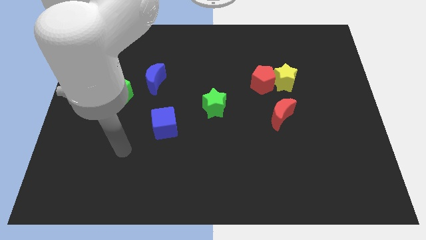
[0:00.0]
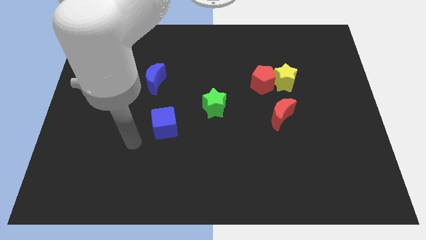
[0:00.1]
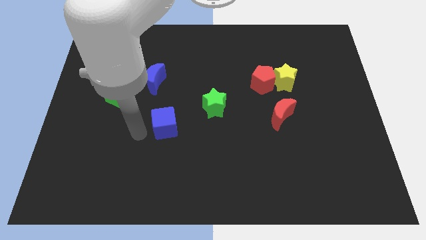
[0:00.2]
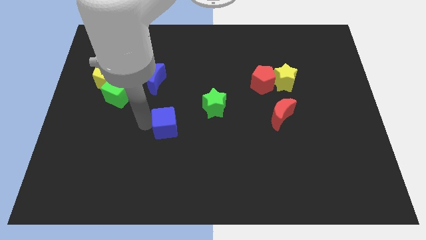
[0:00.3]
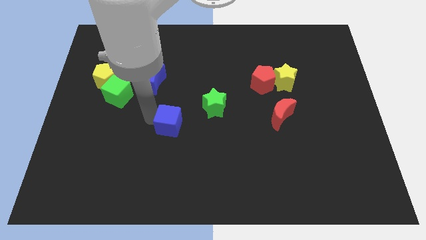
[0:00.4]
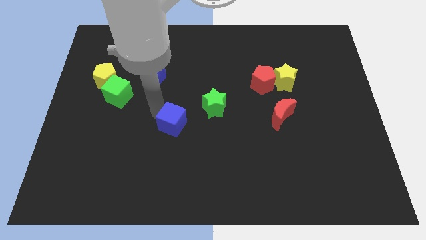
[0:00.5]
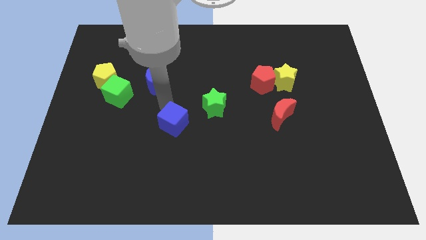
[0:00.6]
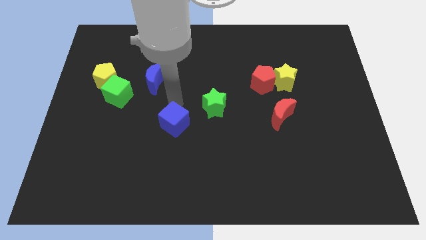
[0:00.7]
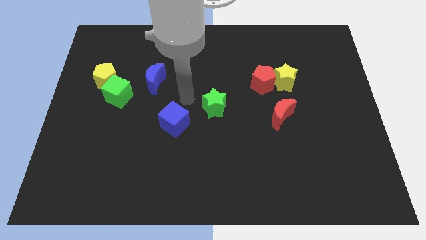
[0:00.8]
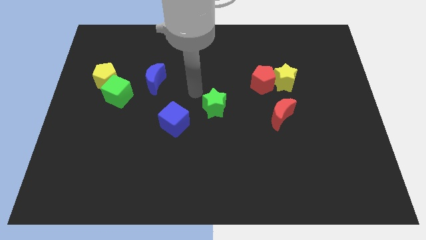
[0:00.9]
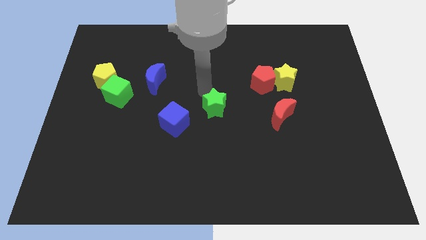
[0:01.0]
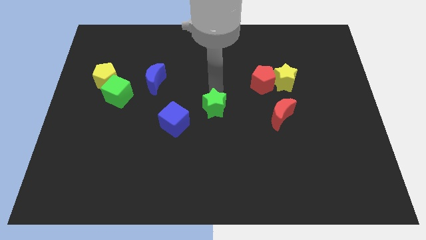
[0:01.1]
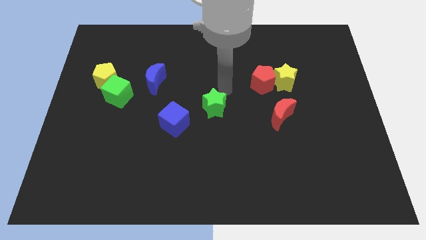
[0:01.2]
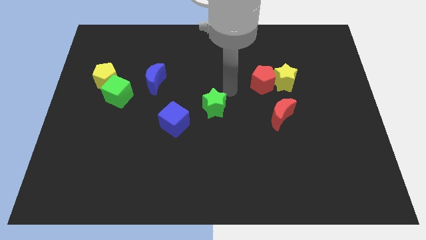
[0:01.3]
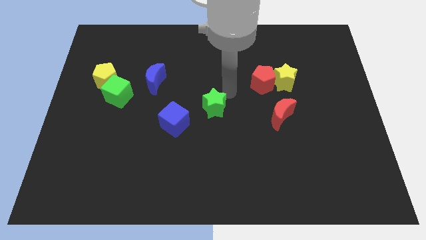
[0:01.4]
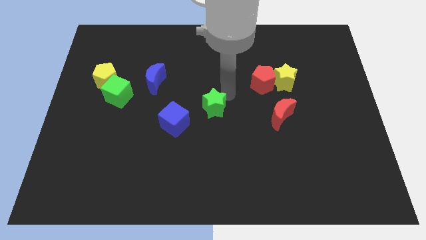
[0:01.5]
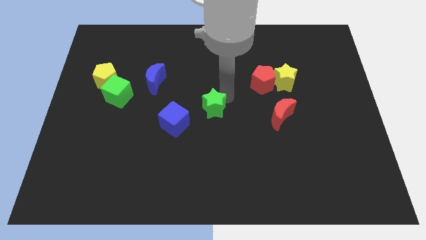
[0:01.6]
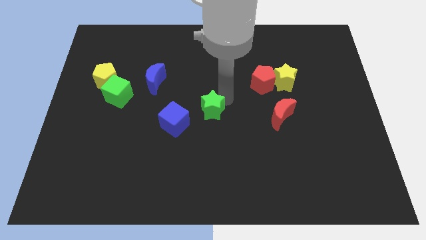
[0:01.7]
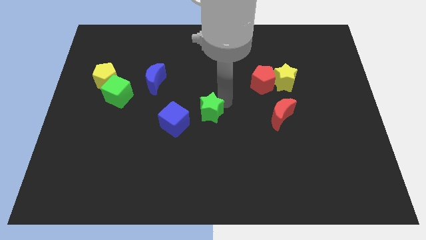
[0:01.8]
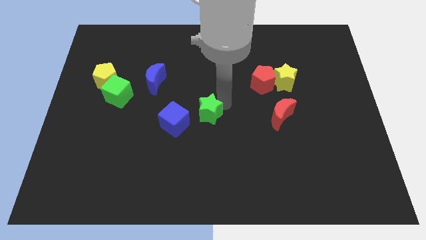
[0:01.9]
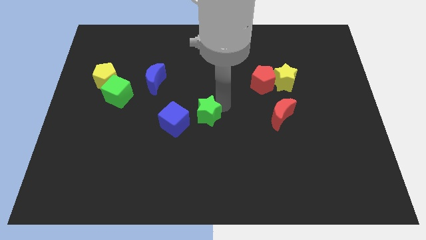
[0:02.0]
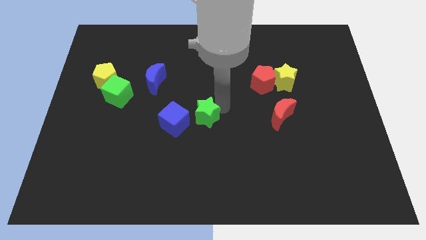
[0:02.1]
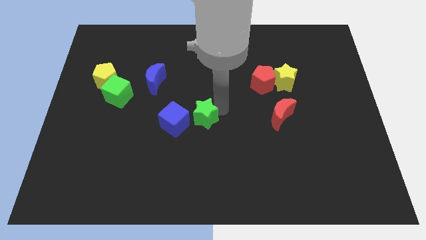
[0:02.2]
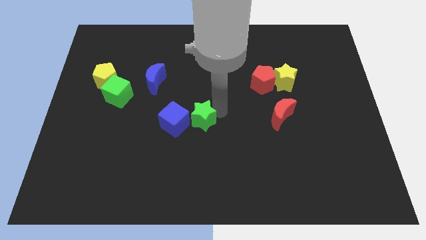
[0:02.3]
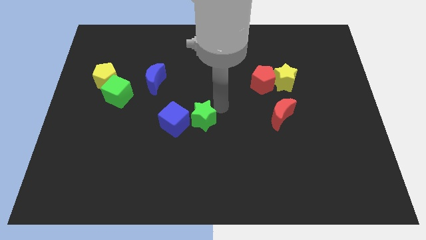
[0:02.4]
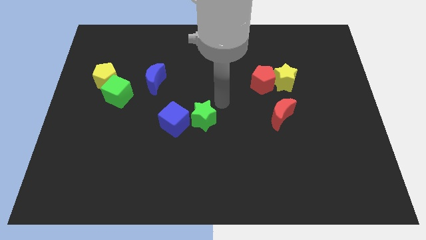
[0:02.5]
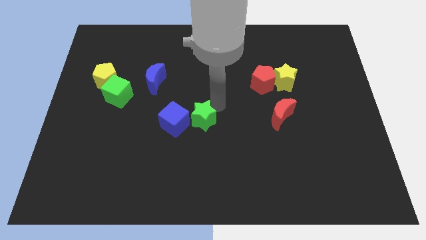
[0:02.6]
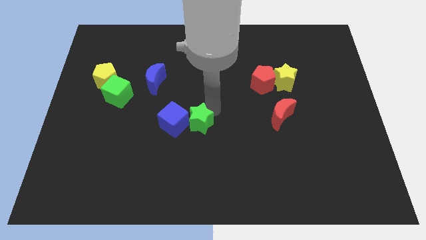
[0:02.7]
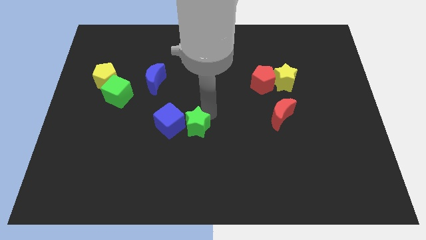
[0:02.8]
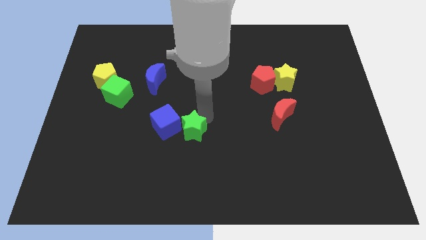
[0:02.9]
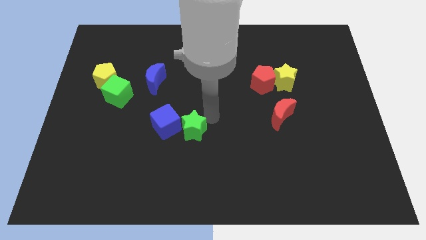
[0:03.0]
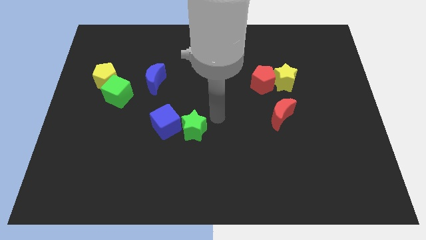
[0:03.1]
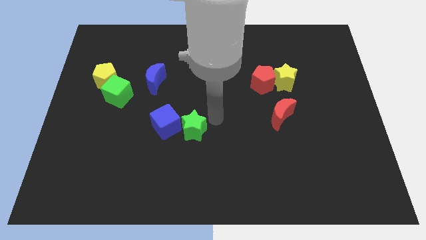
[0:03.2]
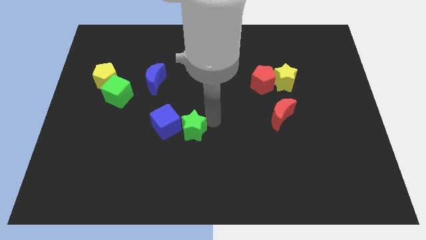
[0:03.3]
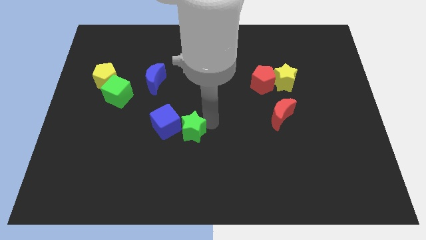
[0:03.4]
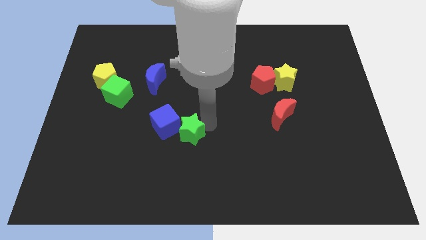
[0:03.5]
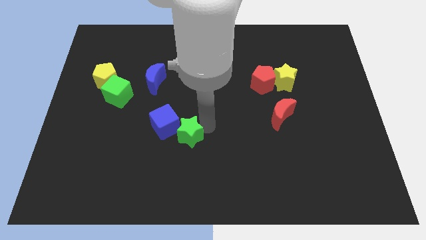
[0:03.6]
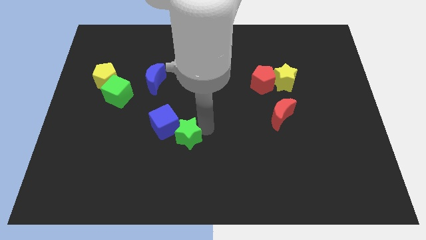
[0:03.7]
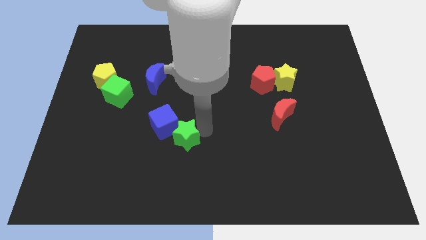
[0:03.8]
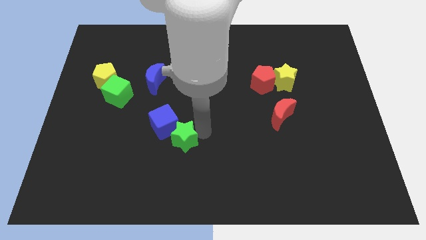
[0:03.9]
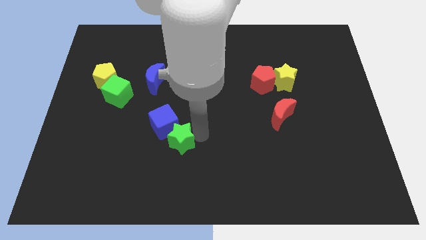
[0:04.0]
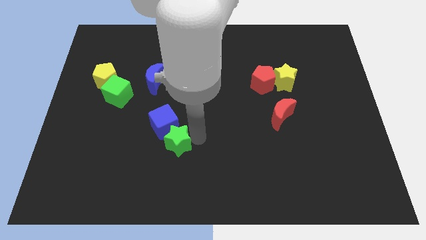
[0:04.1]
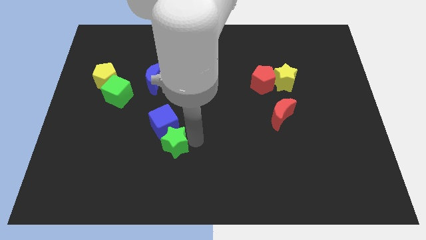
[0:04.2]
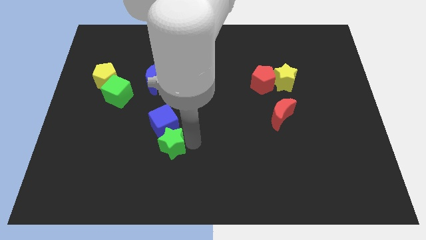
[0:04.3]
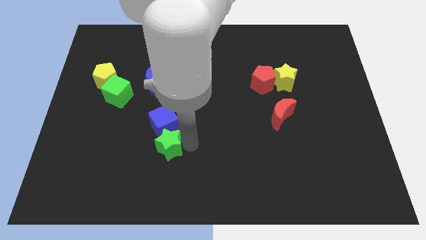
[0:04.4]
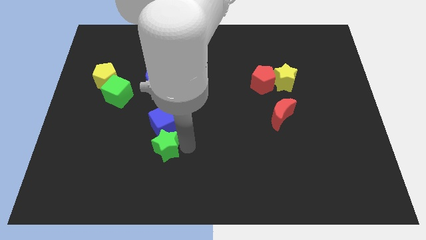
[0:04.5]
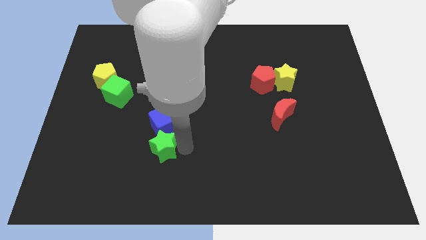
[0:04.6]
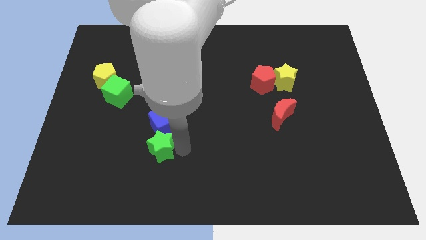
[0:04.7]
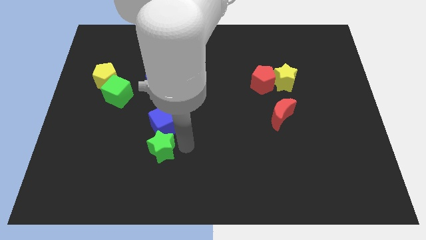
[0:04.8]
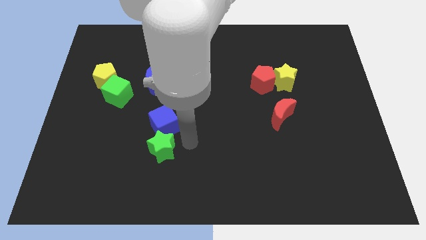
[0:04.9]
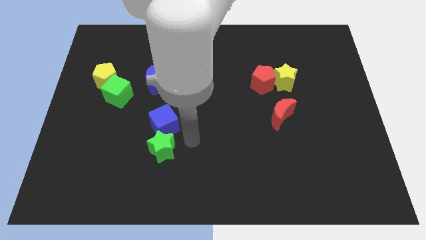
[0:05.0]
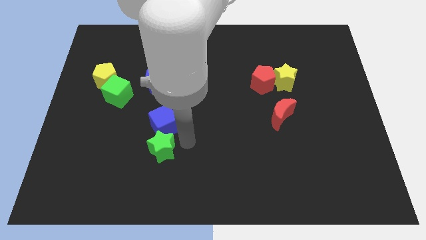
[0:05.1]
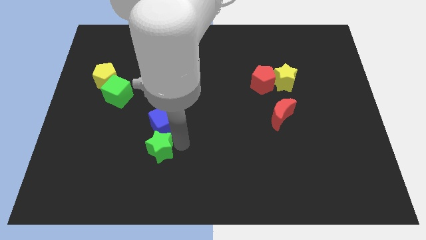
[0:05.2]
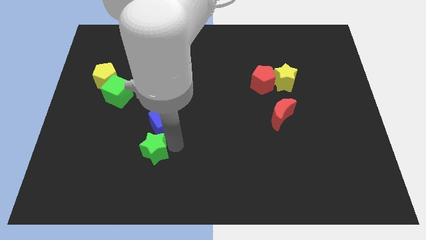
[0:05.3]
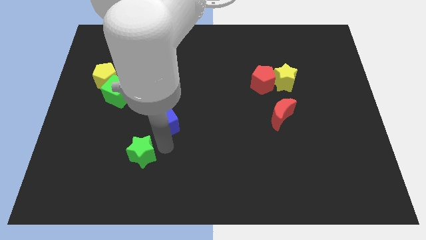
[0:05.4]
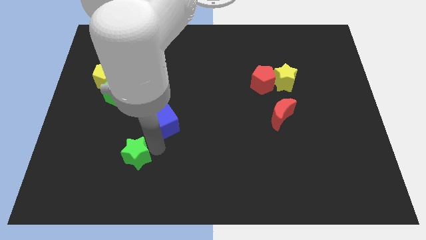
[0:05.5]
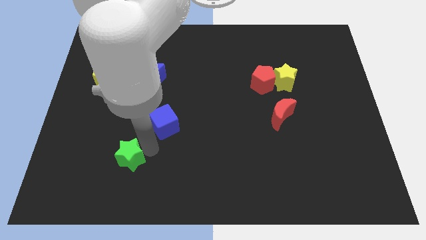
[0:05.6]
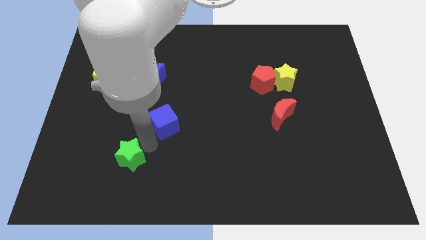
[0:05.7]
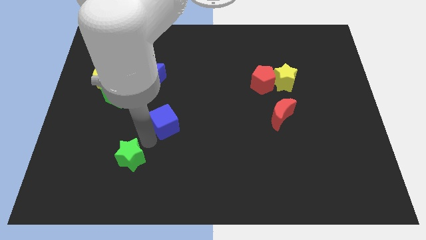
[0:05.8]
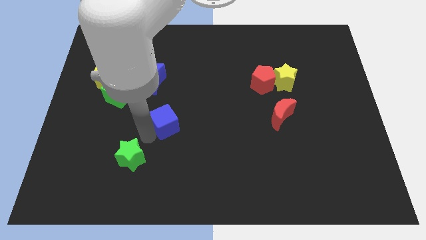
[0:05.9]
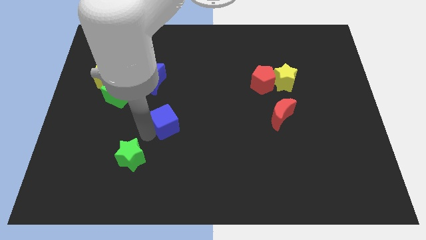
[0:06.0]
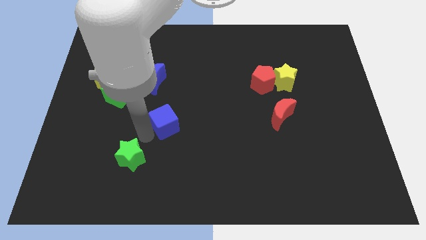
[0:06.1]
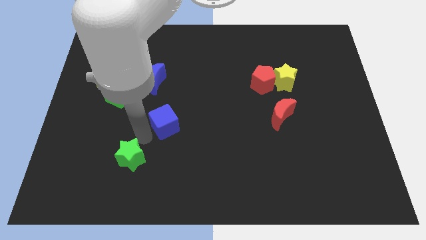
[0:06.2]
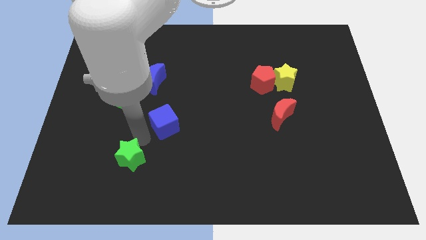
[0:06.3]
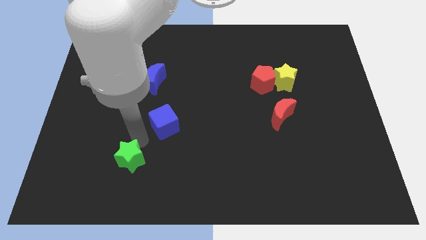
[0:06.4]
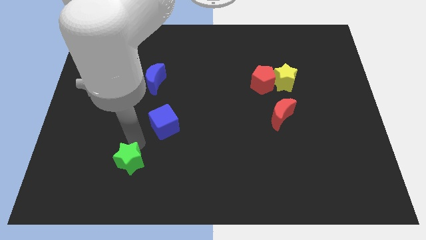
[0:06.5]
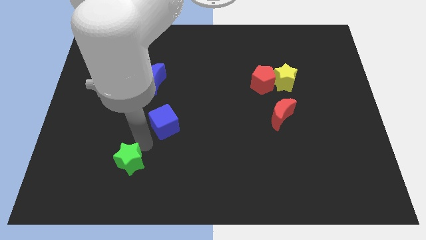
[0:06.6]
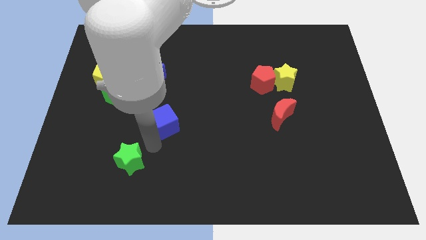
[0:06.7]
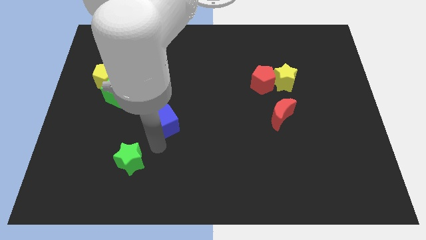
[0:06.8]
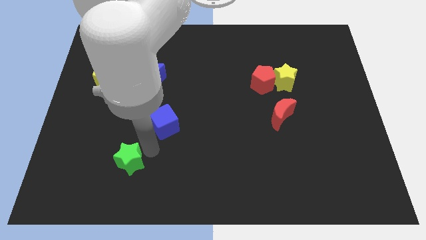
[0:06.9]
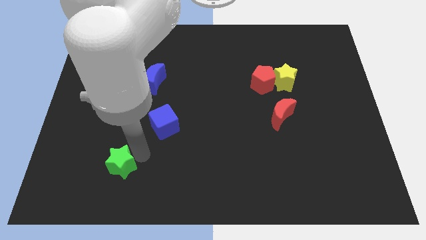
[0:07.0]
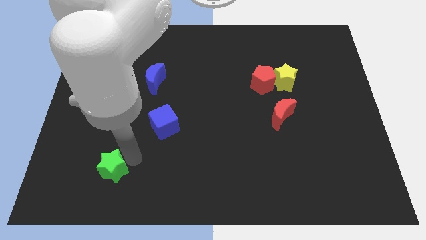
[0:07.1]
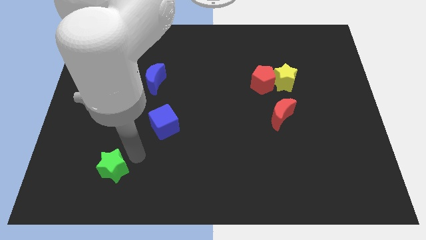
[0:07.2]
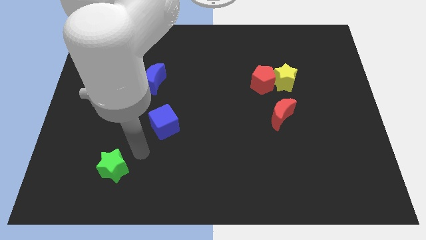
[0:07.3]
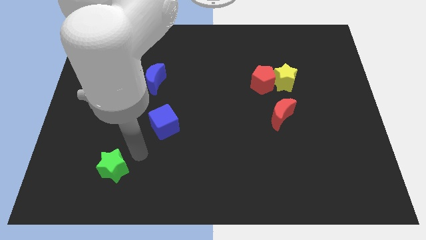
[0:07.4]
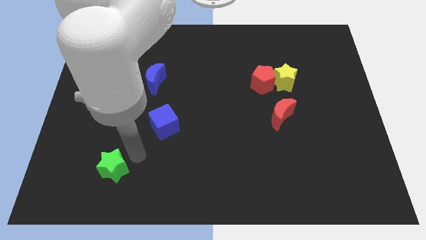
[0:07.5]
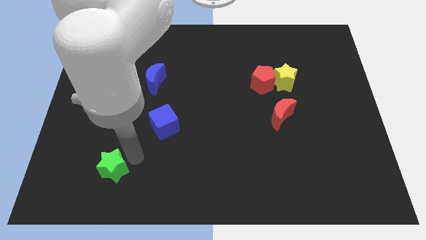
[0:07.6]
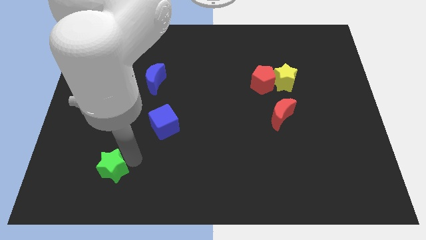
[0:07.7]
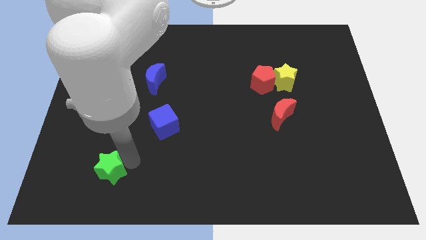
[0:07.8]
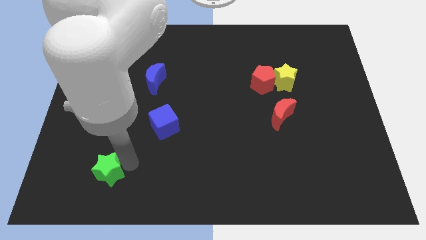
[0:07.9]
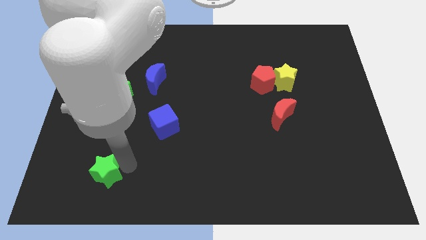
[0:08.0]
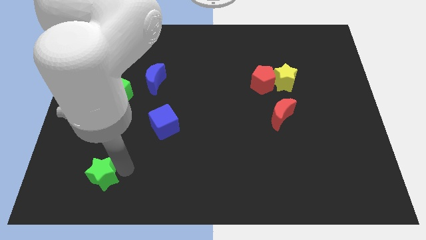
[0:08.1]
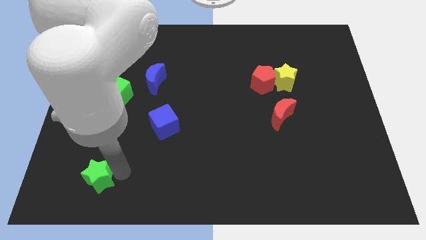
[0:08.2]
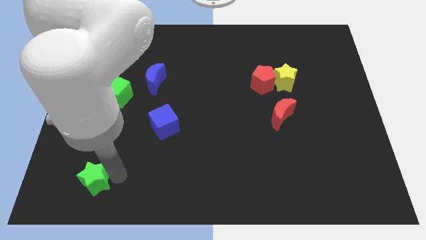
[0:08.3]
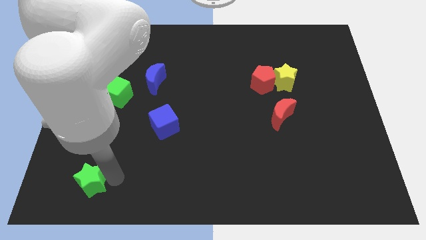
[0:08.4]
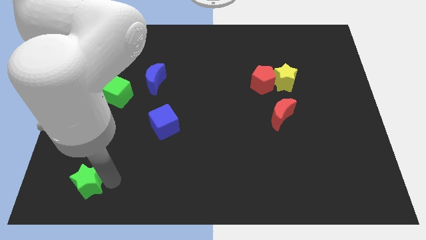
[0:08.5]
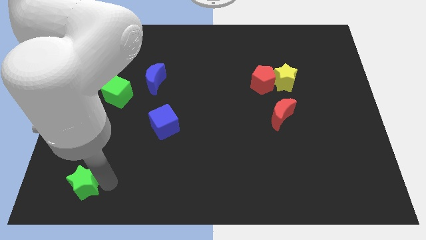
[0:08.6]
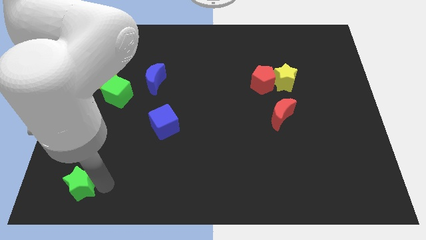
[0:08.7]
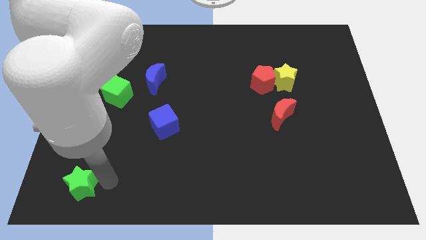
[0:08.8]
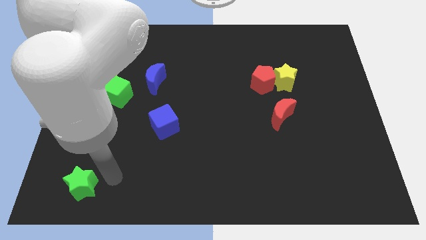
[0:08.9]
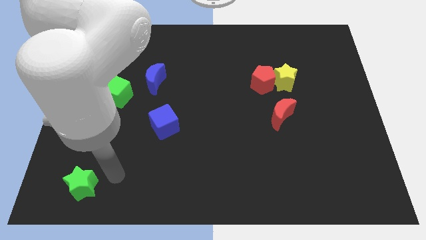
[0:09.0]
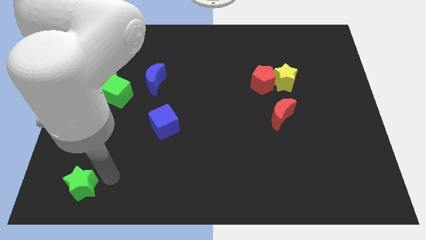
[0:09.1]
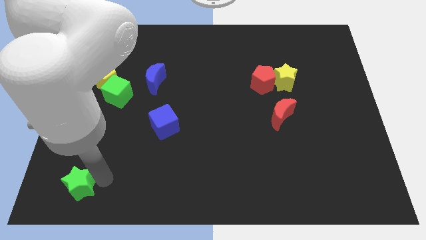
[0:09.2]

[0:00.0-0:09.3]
slide the green star to the bottom left corner
